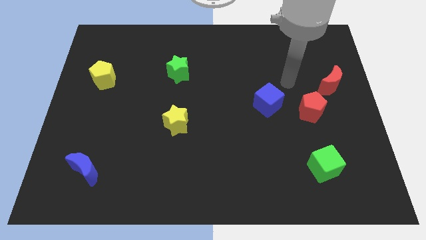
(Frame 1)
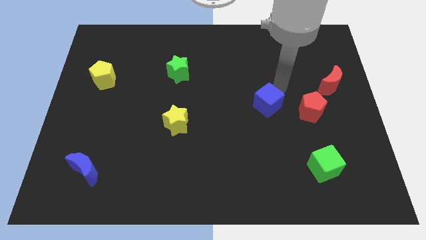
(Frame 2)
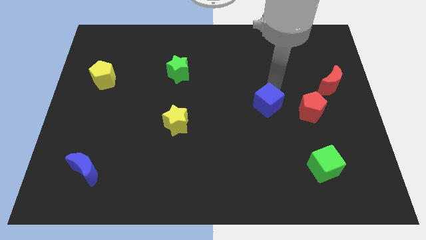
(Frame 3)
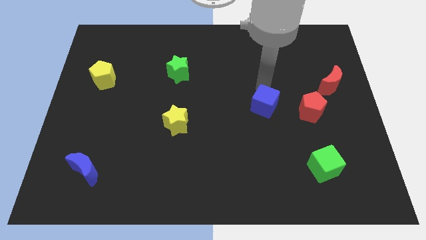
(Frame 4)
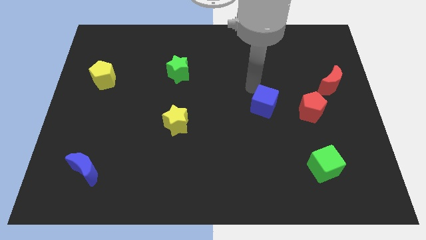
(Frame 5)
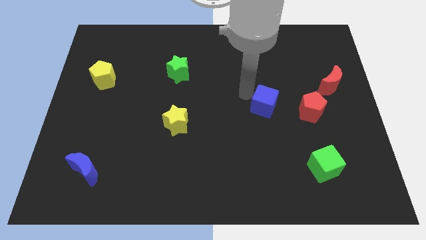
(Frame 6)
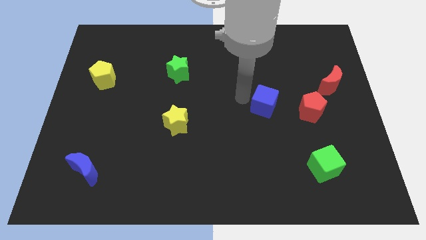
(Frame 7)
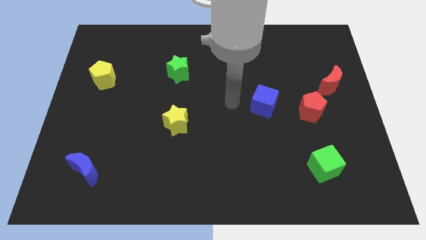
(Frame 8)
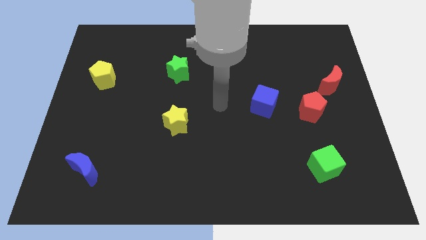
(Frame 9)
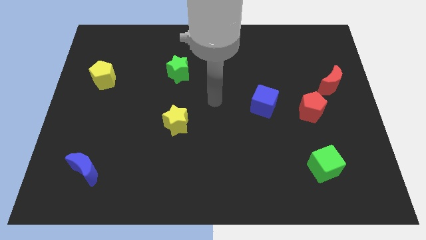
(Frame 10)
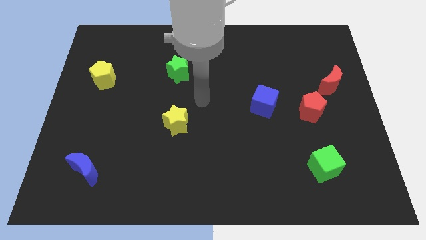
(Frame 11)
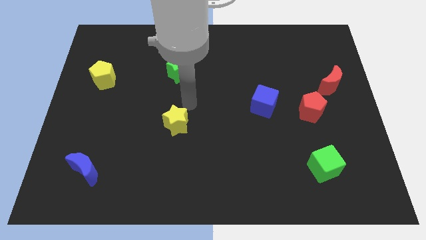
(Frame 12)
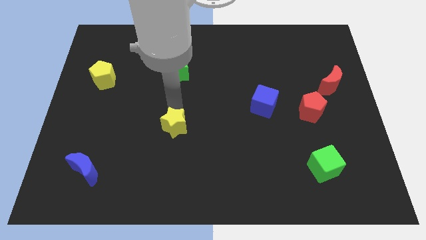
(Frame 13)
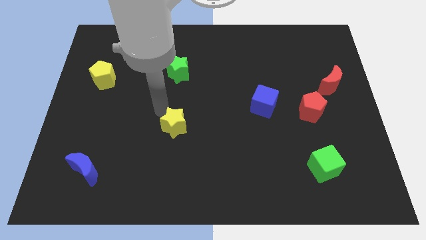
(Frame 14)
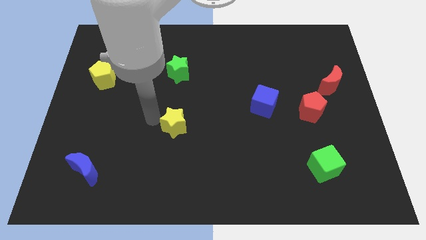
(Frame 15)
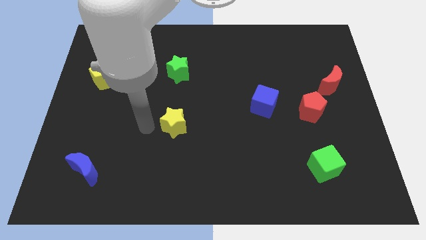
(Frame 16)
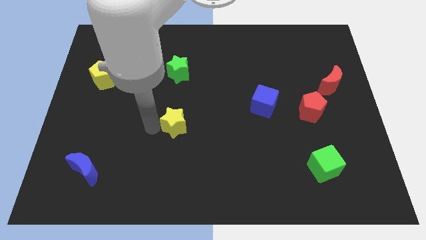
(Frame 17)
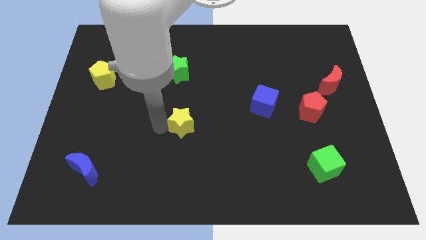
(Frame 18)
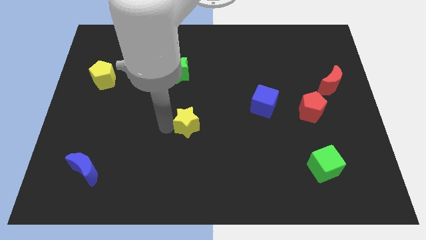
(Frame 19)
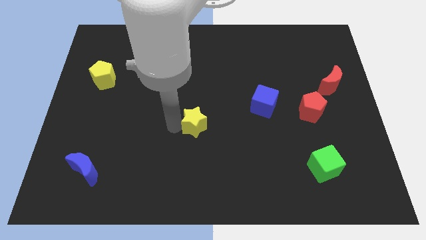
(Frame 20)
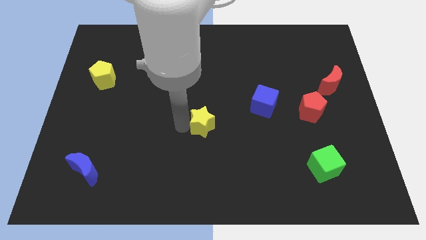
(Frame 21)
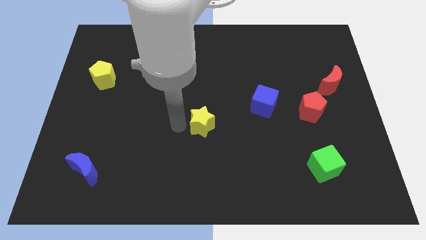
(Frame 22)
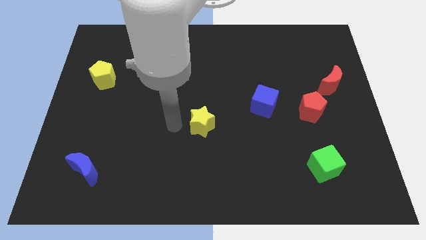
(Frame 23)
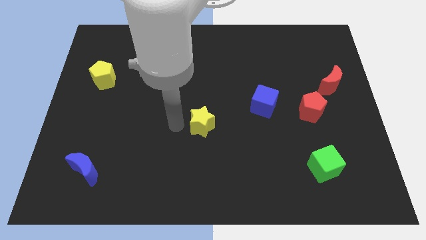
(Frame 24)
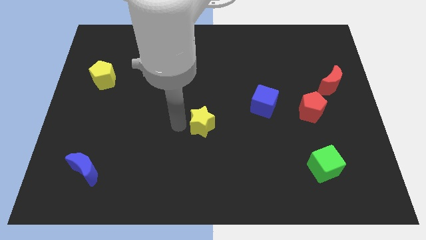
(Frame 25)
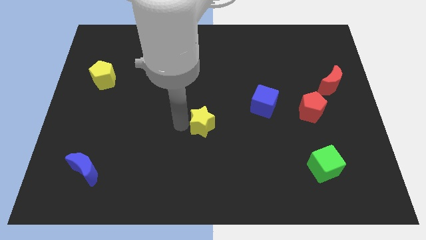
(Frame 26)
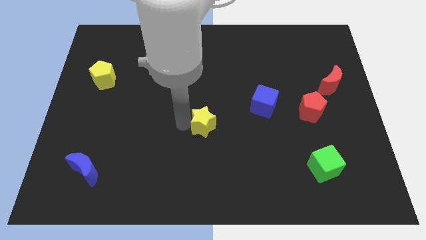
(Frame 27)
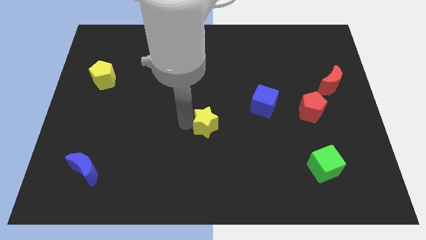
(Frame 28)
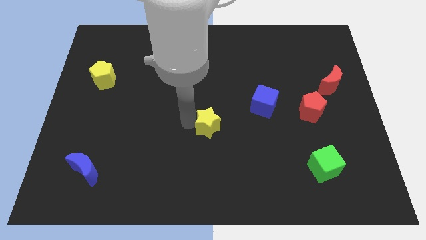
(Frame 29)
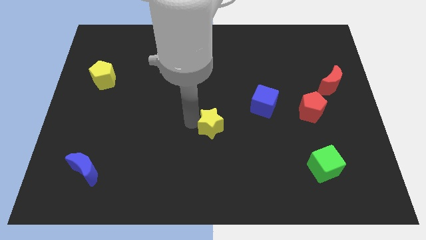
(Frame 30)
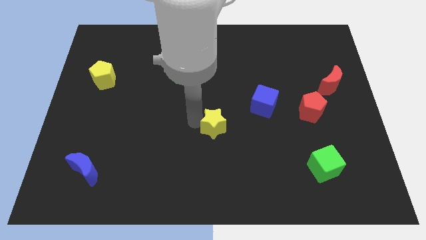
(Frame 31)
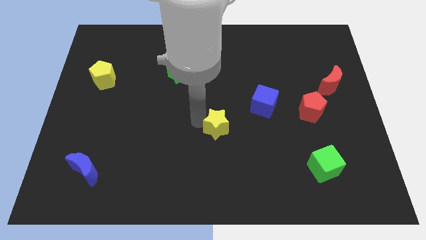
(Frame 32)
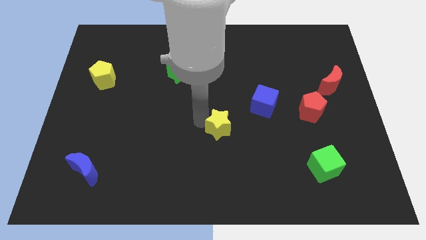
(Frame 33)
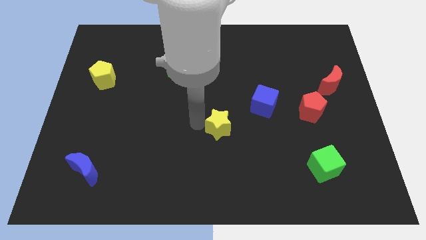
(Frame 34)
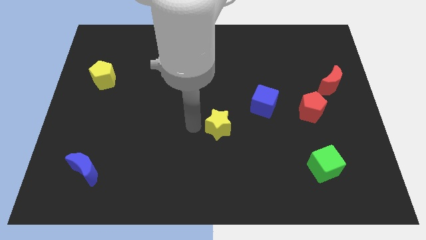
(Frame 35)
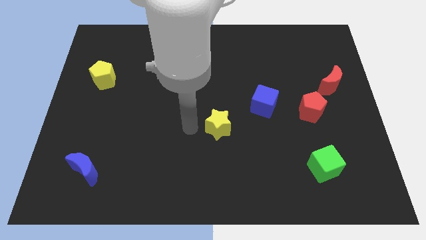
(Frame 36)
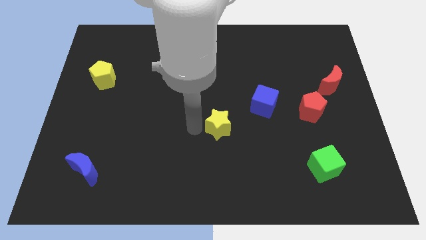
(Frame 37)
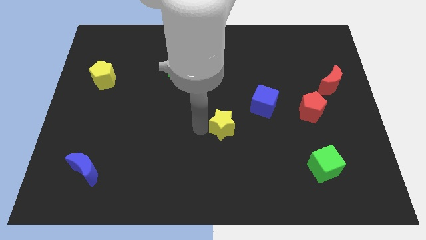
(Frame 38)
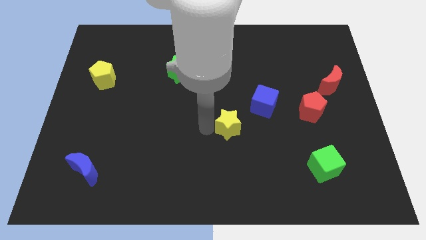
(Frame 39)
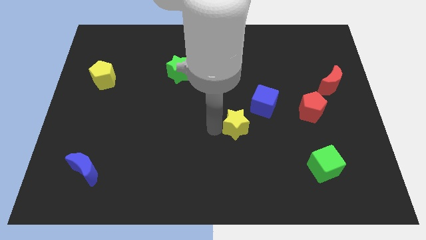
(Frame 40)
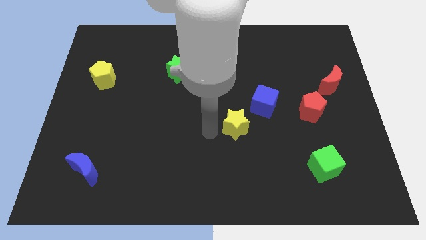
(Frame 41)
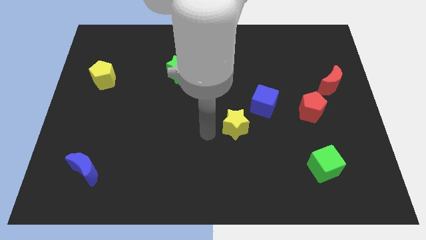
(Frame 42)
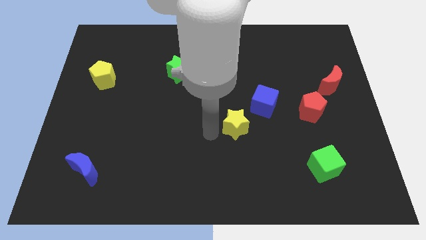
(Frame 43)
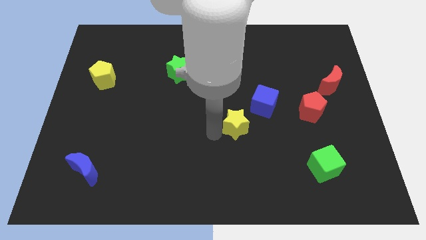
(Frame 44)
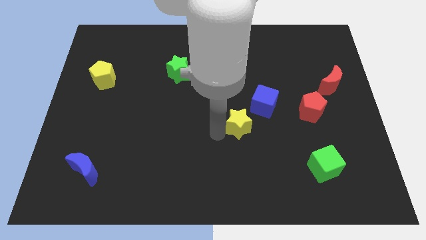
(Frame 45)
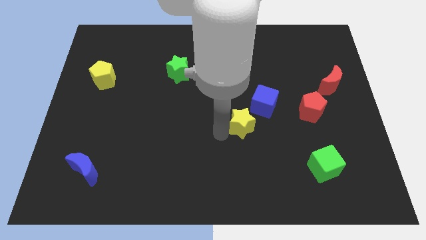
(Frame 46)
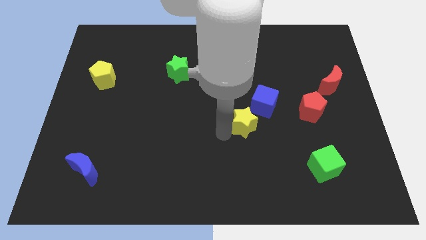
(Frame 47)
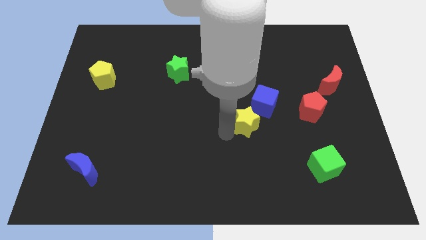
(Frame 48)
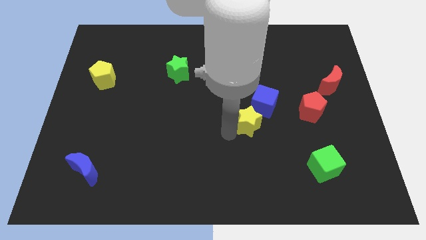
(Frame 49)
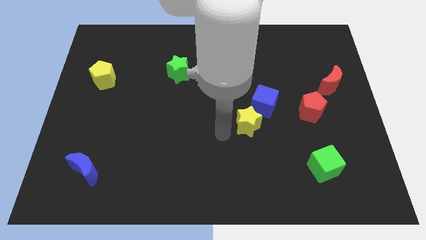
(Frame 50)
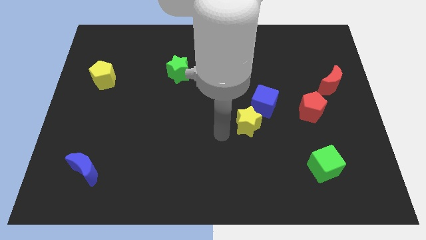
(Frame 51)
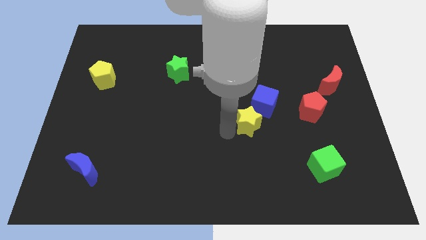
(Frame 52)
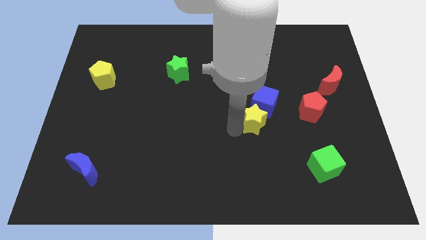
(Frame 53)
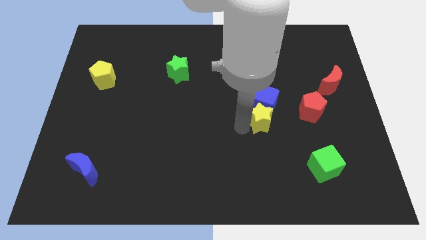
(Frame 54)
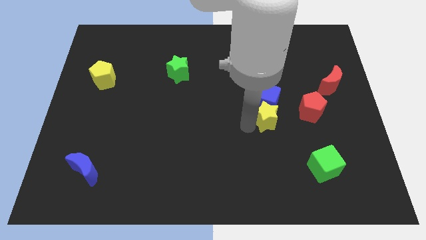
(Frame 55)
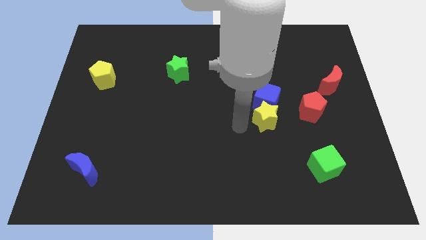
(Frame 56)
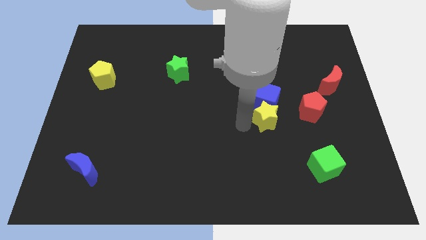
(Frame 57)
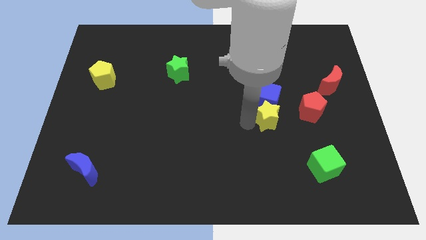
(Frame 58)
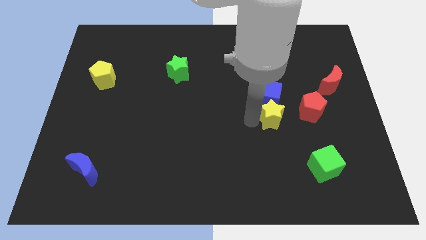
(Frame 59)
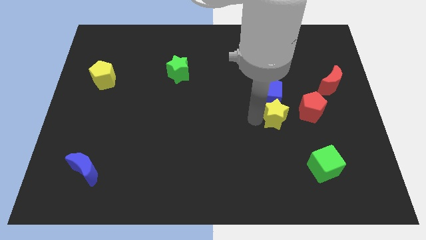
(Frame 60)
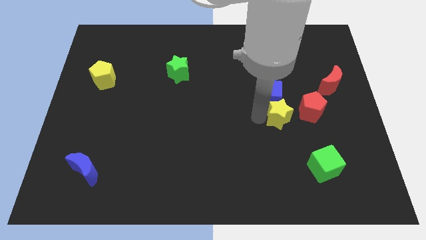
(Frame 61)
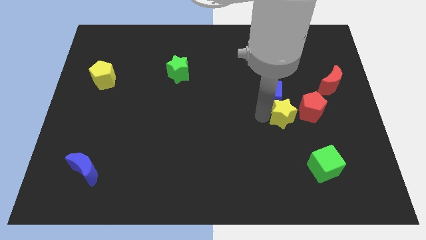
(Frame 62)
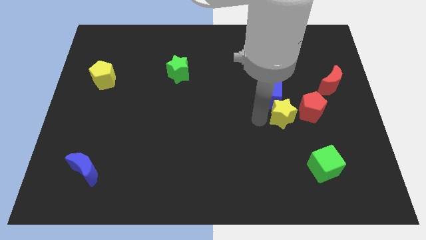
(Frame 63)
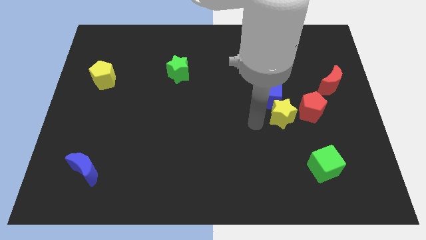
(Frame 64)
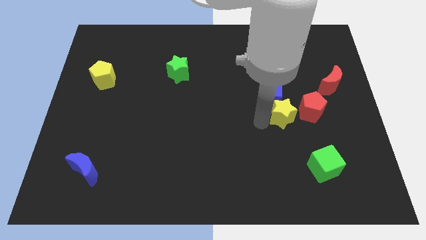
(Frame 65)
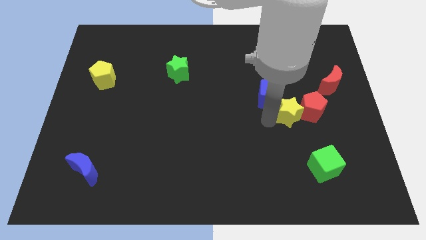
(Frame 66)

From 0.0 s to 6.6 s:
slide the yellow star next to the red pentagon
